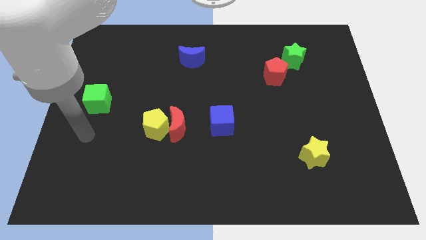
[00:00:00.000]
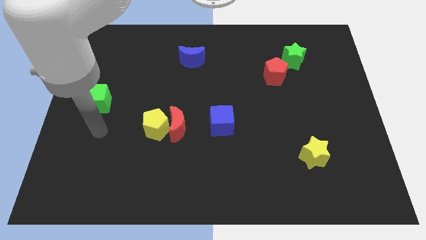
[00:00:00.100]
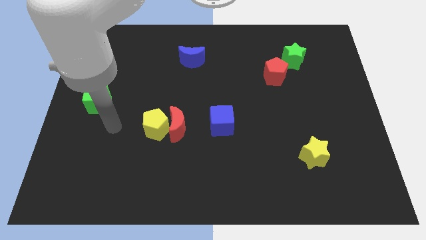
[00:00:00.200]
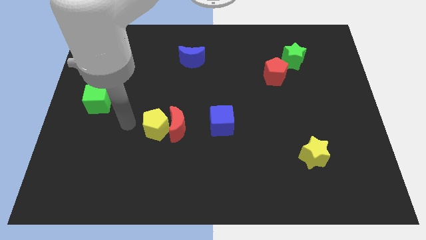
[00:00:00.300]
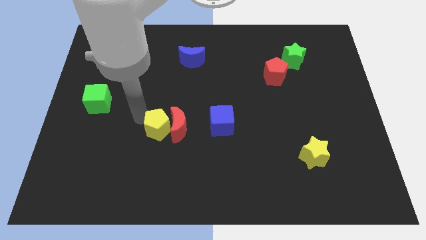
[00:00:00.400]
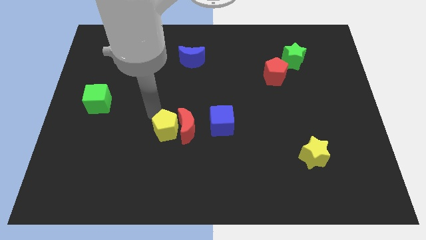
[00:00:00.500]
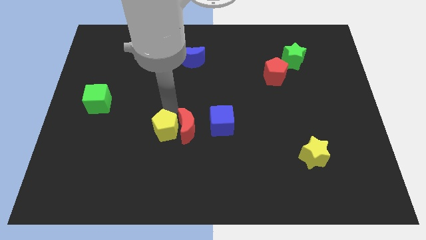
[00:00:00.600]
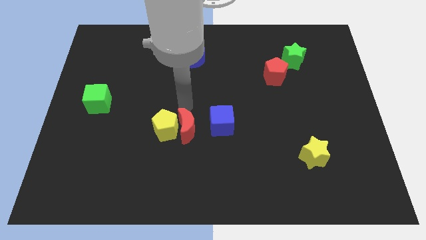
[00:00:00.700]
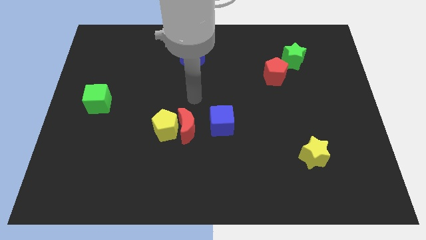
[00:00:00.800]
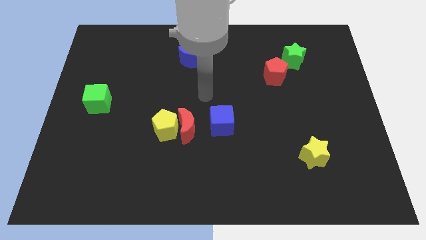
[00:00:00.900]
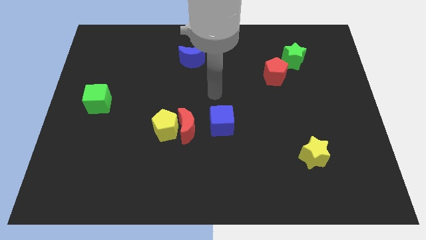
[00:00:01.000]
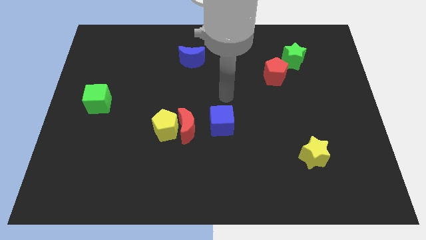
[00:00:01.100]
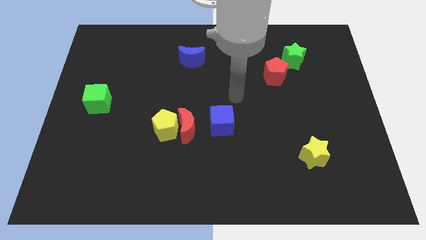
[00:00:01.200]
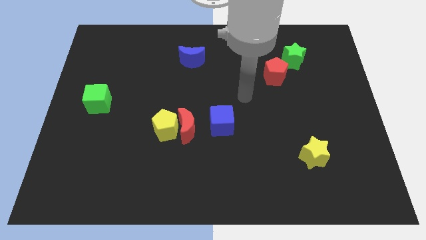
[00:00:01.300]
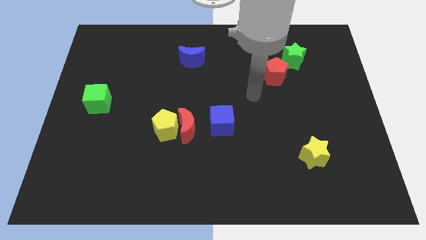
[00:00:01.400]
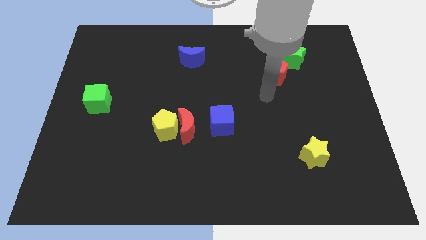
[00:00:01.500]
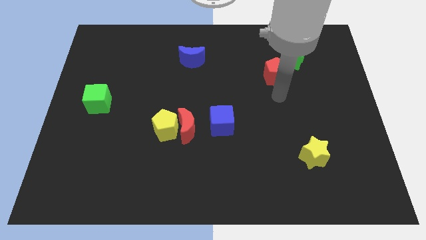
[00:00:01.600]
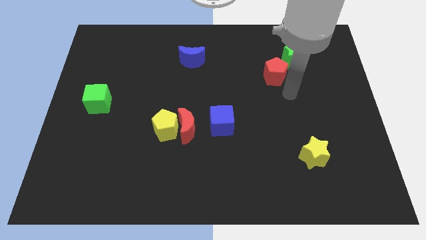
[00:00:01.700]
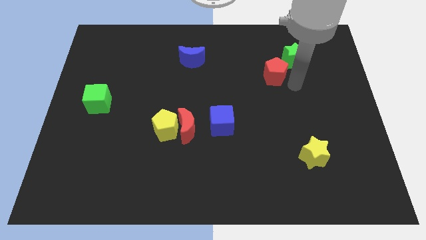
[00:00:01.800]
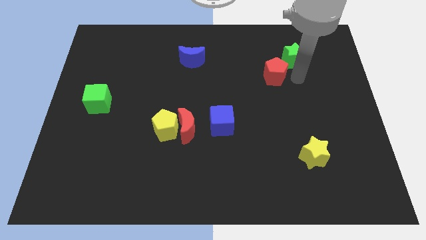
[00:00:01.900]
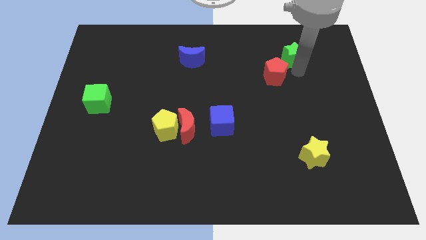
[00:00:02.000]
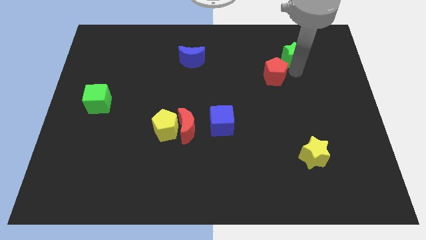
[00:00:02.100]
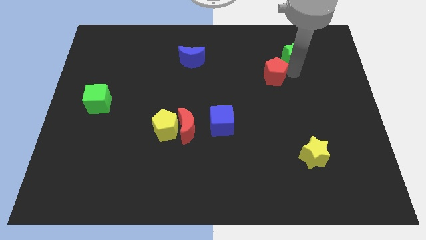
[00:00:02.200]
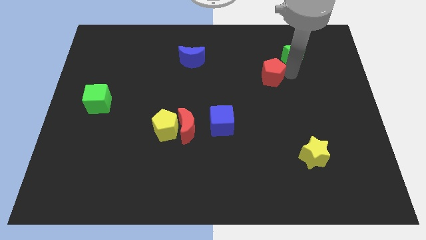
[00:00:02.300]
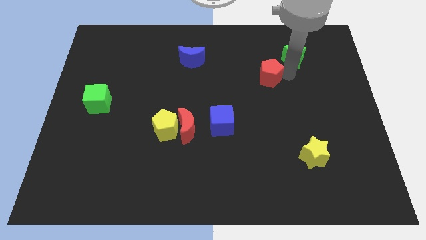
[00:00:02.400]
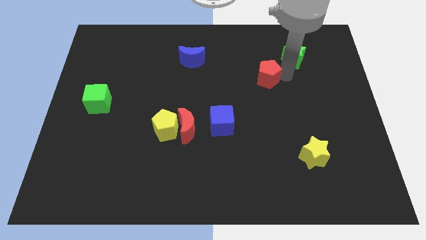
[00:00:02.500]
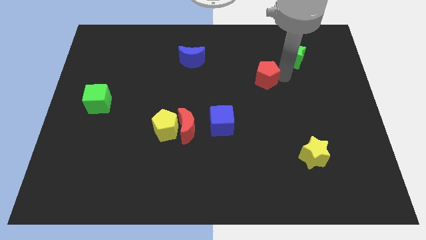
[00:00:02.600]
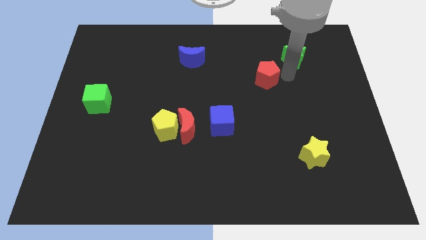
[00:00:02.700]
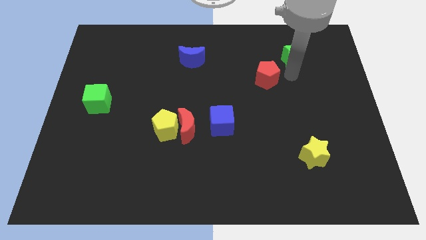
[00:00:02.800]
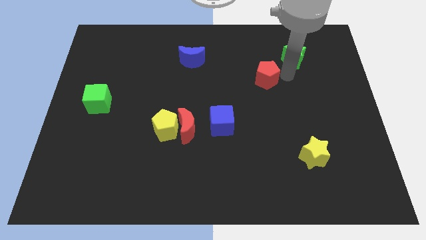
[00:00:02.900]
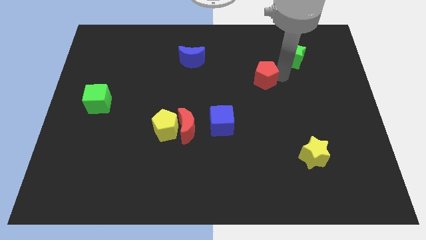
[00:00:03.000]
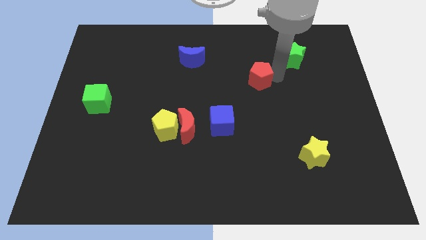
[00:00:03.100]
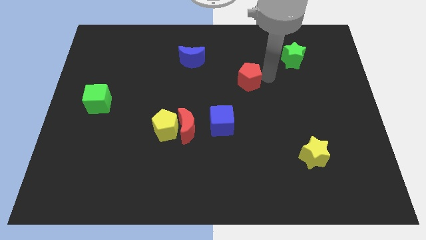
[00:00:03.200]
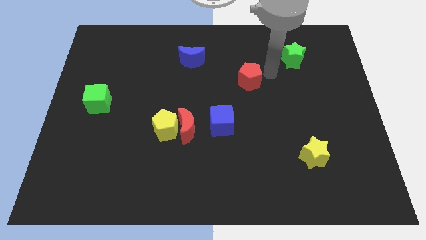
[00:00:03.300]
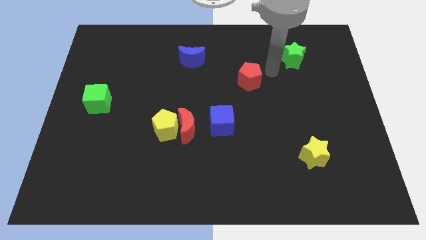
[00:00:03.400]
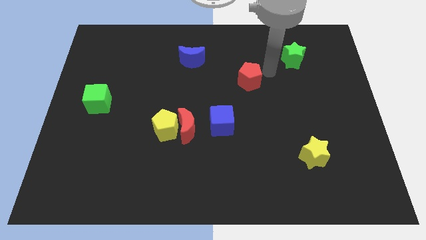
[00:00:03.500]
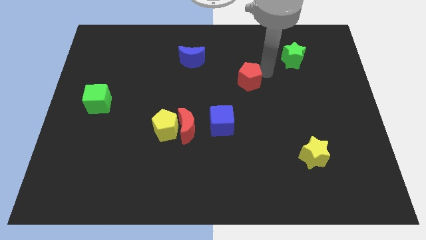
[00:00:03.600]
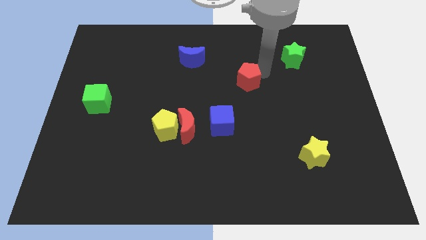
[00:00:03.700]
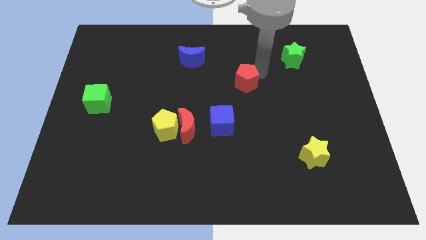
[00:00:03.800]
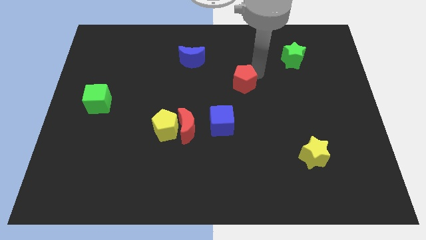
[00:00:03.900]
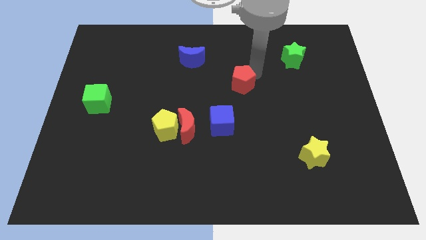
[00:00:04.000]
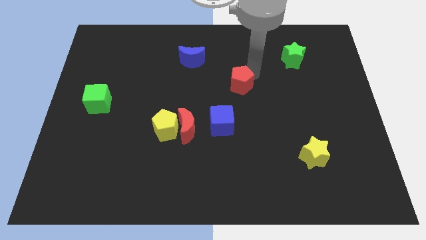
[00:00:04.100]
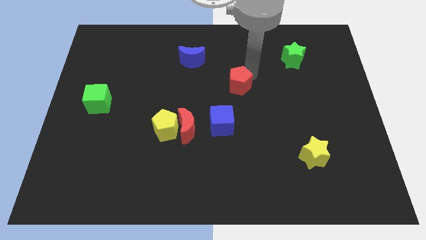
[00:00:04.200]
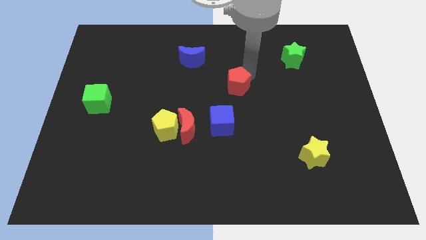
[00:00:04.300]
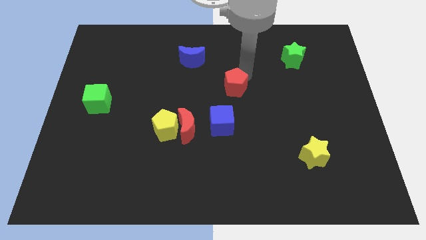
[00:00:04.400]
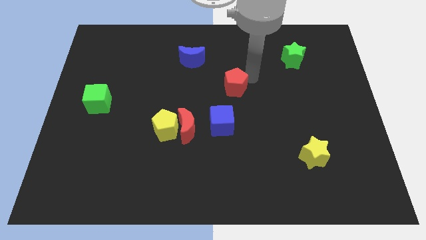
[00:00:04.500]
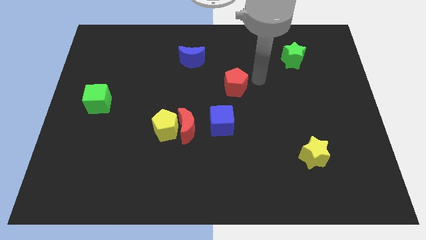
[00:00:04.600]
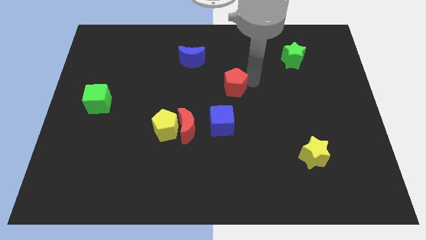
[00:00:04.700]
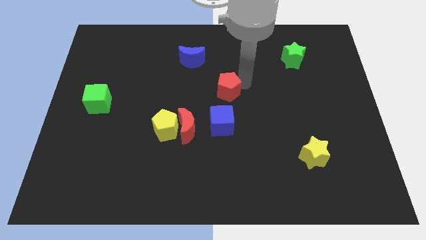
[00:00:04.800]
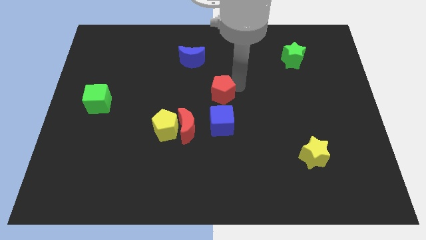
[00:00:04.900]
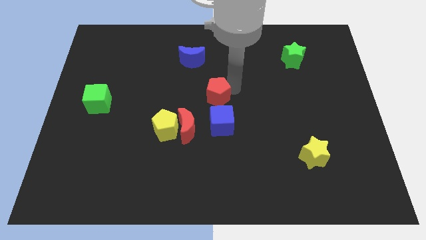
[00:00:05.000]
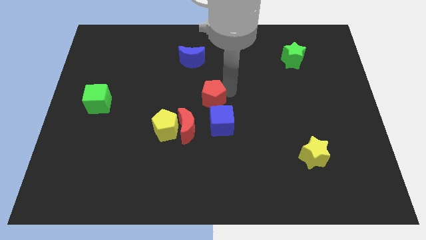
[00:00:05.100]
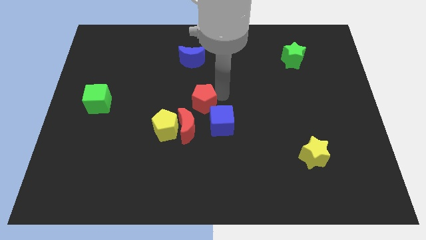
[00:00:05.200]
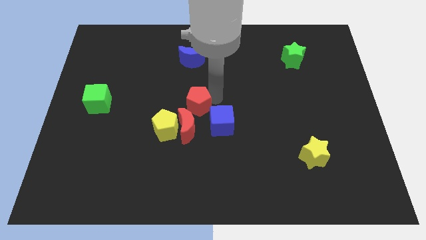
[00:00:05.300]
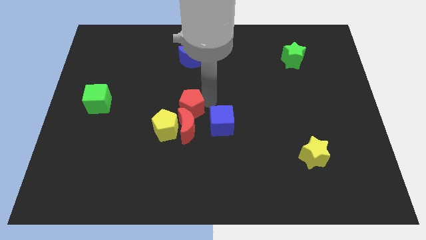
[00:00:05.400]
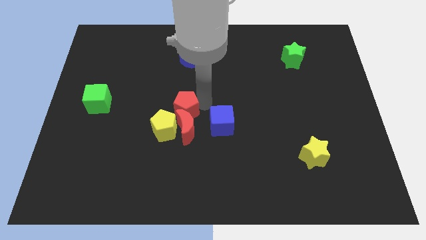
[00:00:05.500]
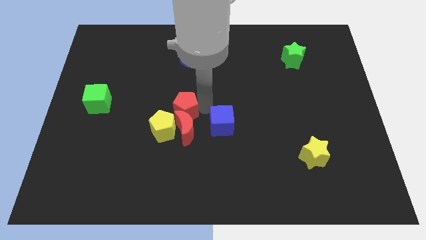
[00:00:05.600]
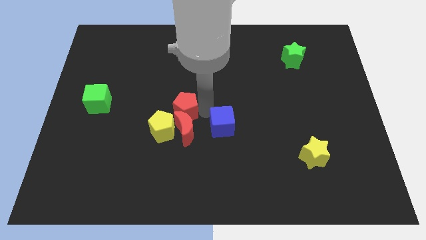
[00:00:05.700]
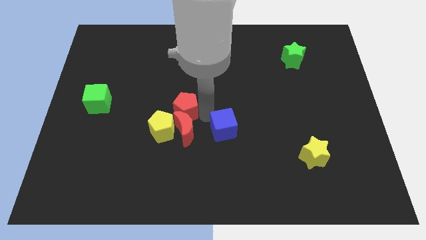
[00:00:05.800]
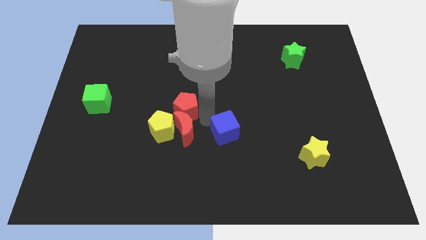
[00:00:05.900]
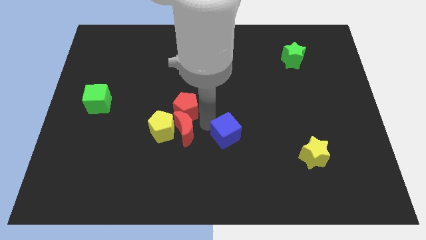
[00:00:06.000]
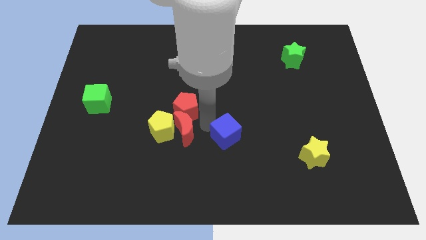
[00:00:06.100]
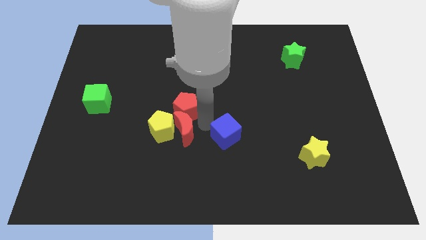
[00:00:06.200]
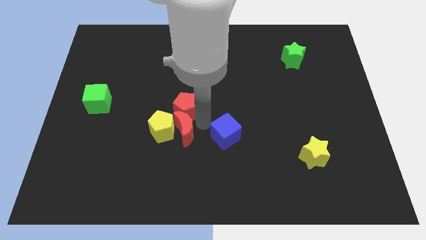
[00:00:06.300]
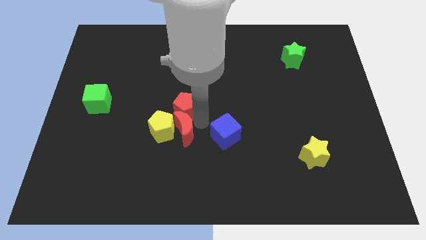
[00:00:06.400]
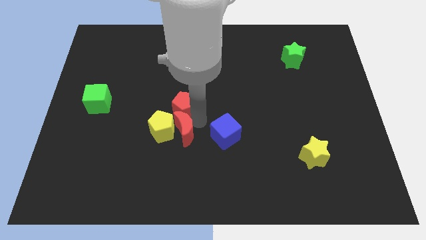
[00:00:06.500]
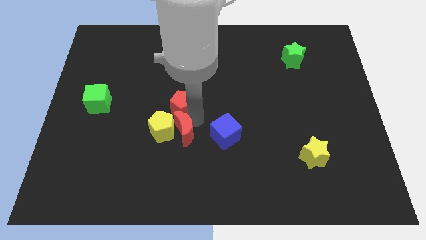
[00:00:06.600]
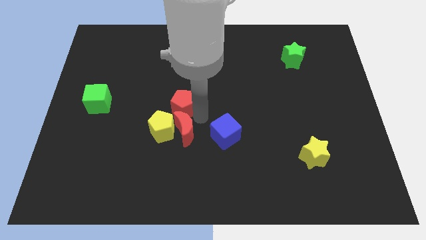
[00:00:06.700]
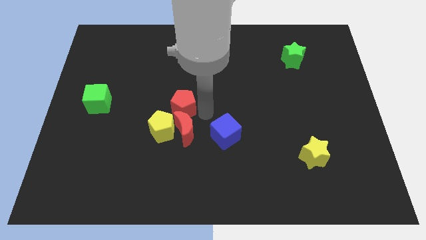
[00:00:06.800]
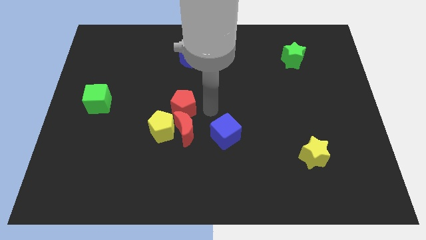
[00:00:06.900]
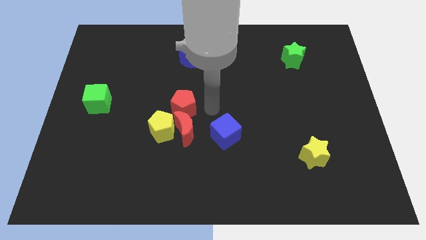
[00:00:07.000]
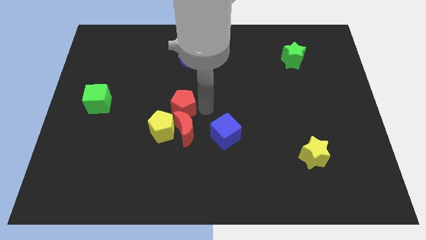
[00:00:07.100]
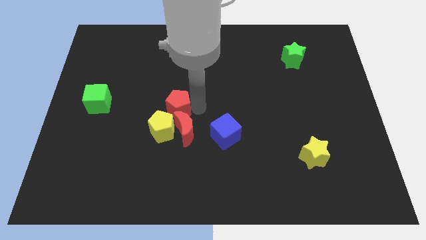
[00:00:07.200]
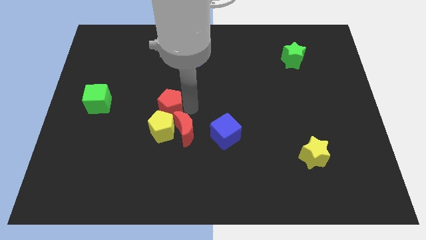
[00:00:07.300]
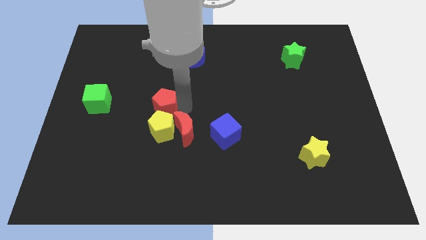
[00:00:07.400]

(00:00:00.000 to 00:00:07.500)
put the red pentagon to the top left side of the yellow pentagon
